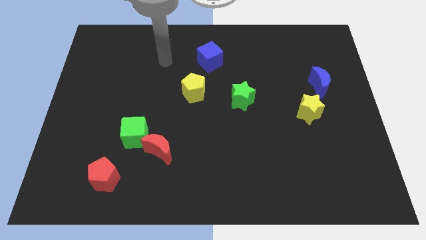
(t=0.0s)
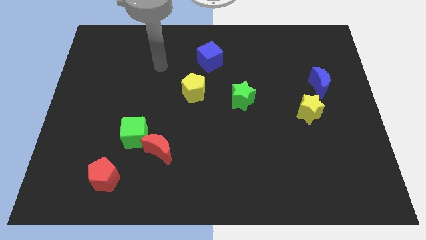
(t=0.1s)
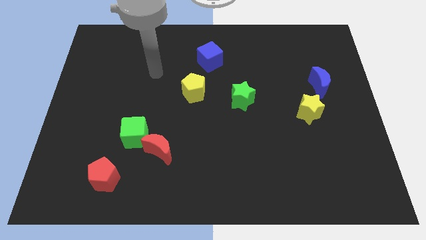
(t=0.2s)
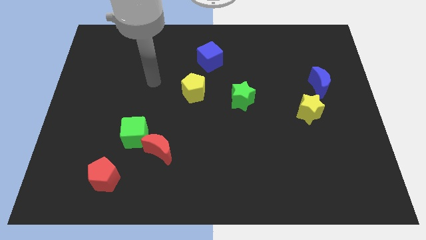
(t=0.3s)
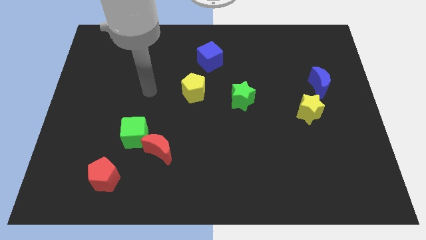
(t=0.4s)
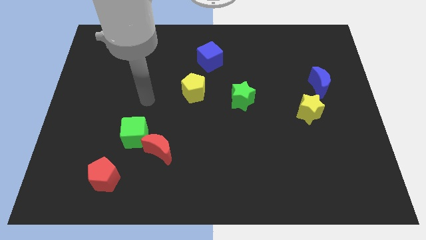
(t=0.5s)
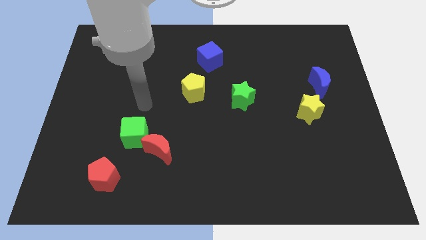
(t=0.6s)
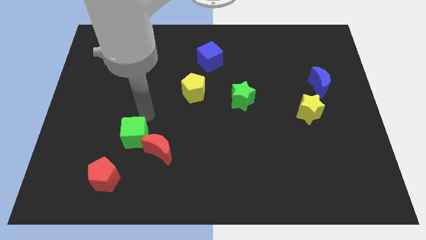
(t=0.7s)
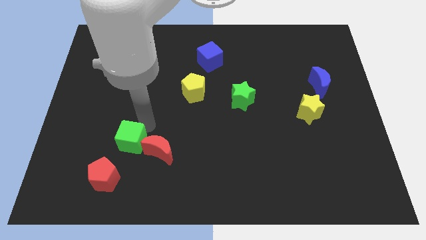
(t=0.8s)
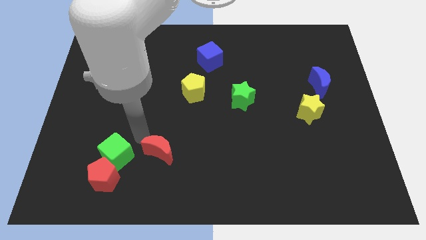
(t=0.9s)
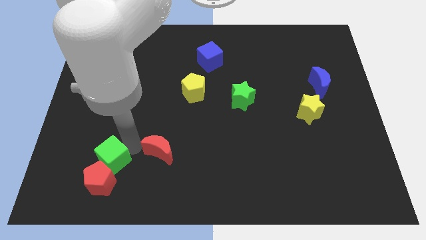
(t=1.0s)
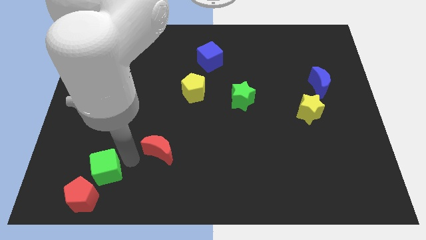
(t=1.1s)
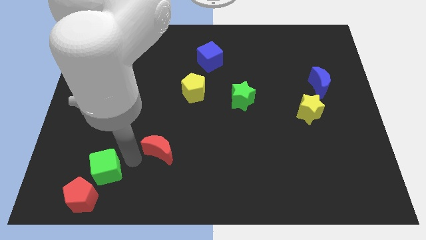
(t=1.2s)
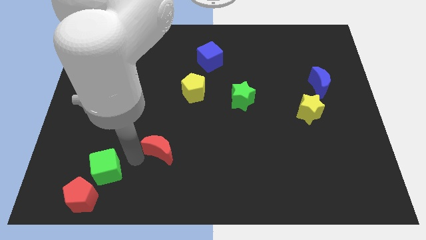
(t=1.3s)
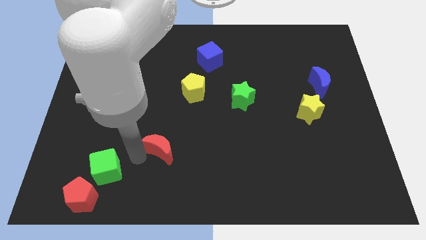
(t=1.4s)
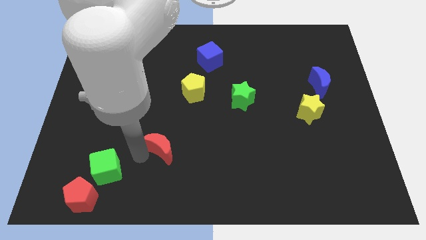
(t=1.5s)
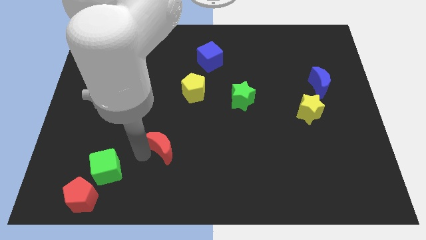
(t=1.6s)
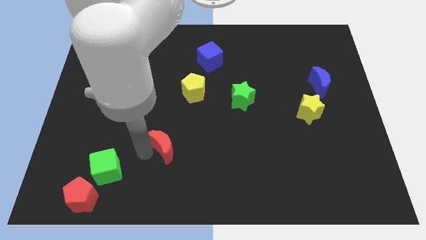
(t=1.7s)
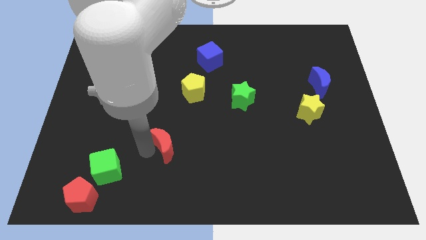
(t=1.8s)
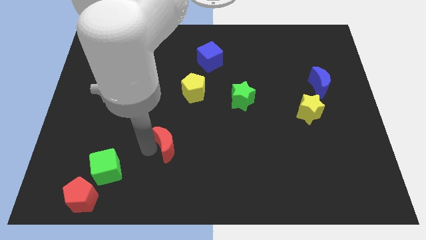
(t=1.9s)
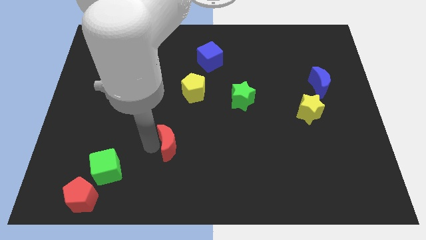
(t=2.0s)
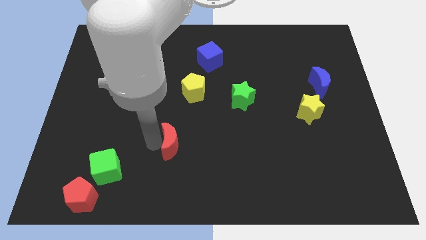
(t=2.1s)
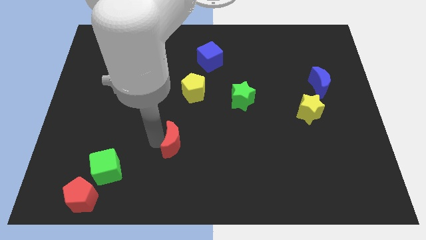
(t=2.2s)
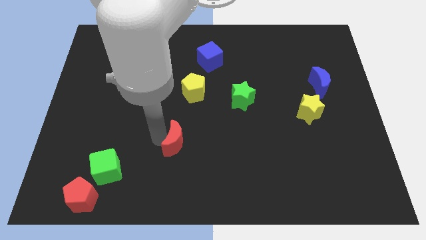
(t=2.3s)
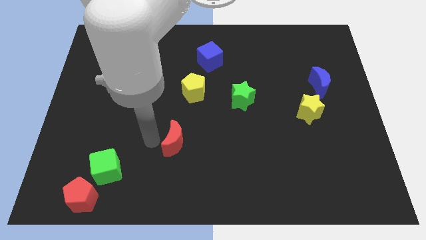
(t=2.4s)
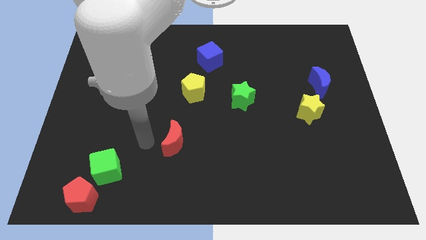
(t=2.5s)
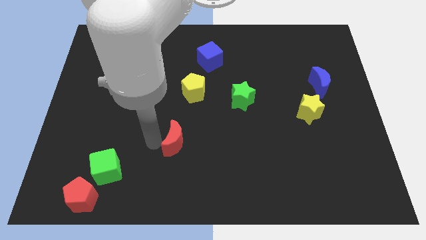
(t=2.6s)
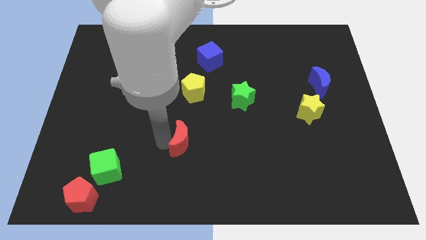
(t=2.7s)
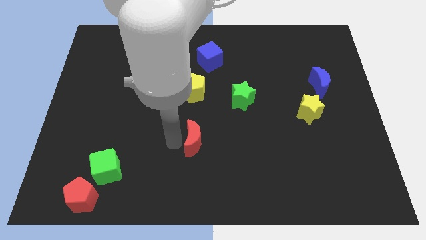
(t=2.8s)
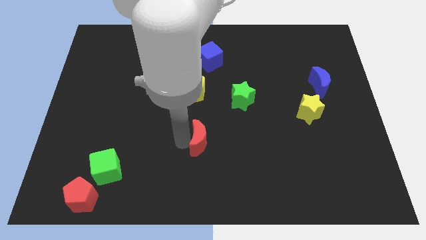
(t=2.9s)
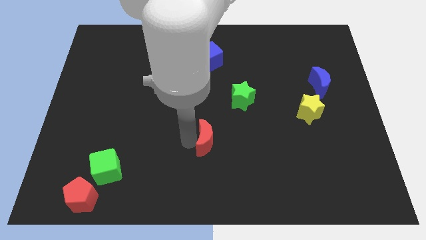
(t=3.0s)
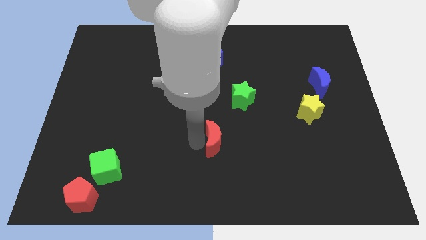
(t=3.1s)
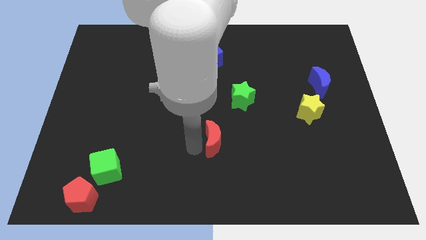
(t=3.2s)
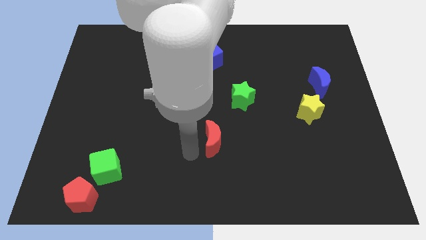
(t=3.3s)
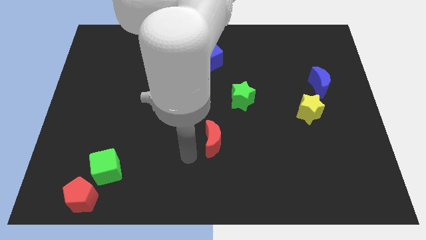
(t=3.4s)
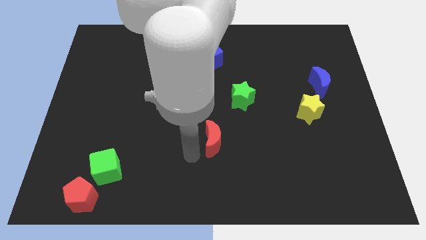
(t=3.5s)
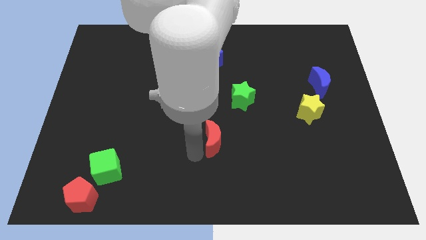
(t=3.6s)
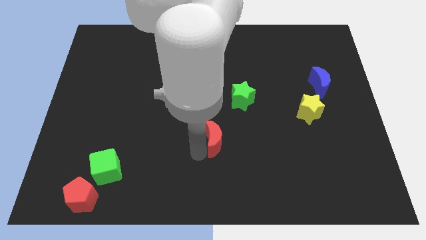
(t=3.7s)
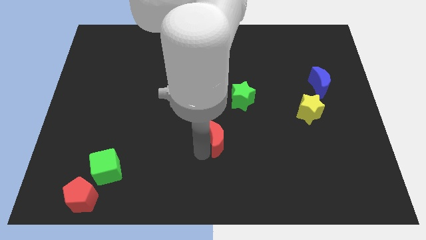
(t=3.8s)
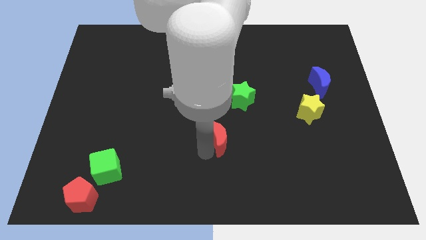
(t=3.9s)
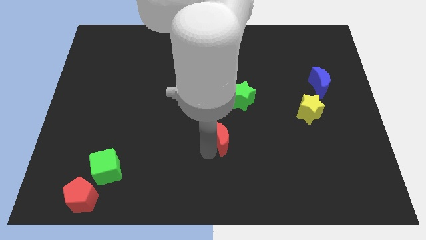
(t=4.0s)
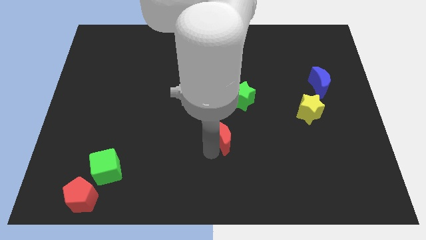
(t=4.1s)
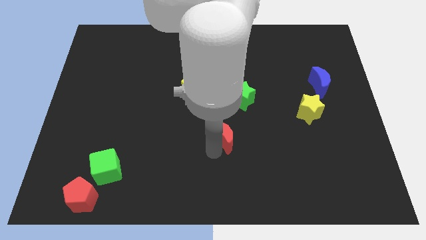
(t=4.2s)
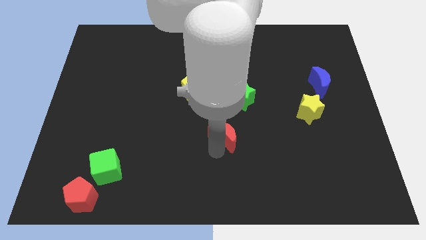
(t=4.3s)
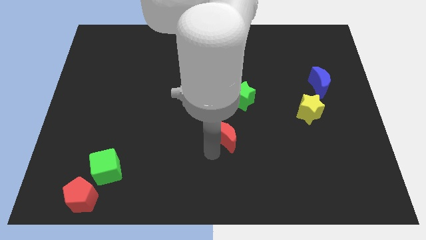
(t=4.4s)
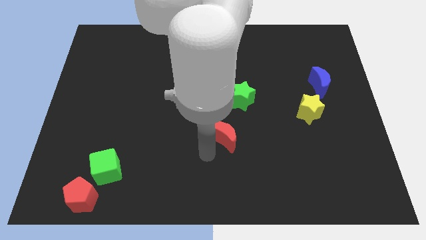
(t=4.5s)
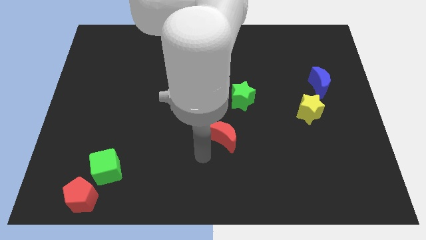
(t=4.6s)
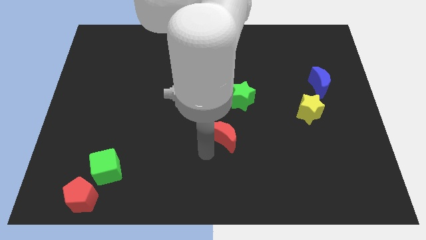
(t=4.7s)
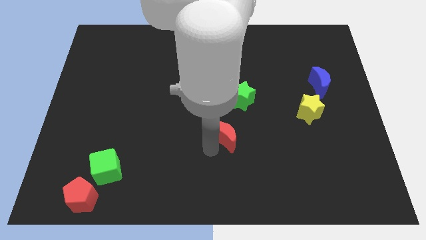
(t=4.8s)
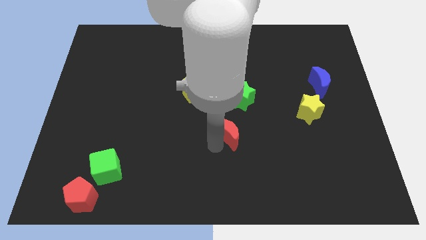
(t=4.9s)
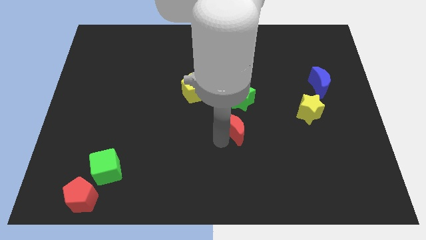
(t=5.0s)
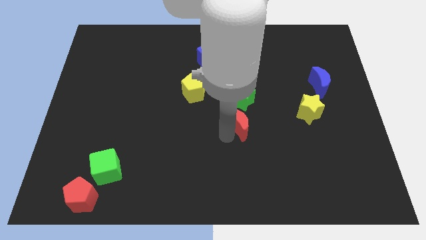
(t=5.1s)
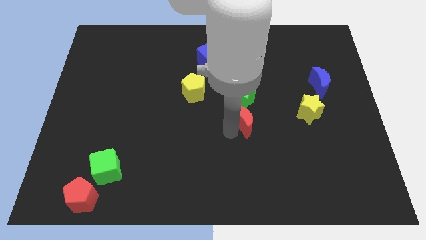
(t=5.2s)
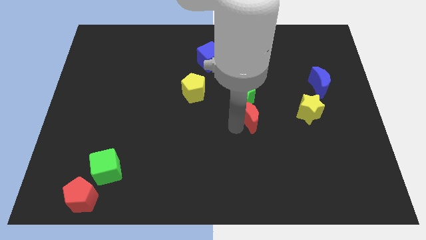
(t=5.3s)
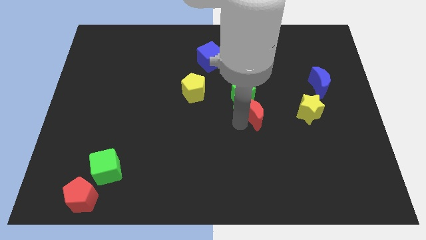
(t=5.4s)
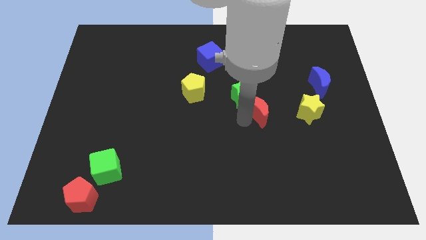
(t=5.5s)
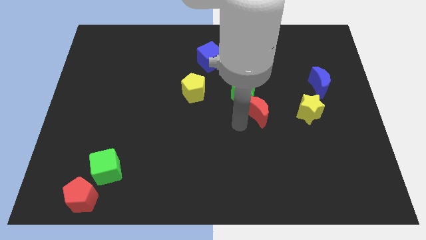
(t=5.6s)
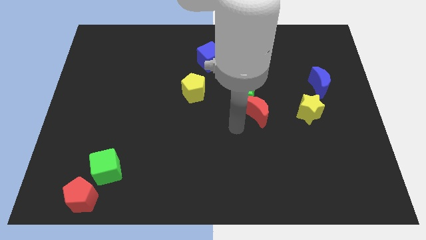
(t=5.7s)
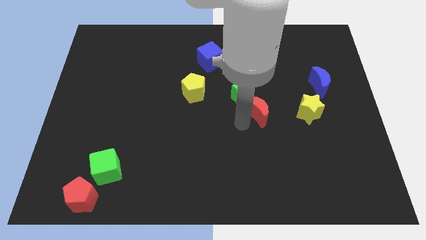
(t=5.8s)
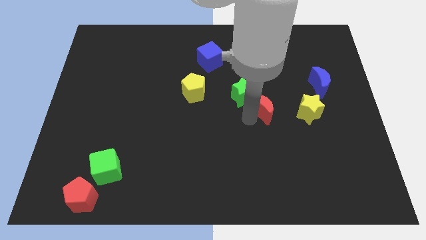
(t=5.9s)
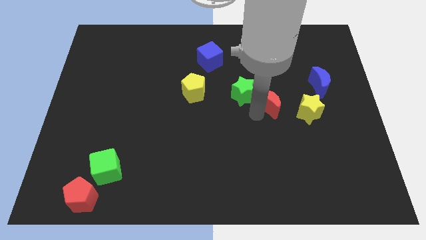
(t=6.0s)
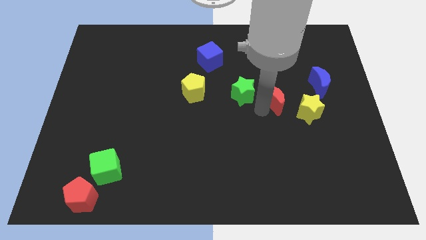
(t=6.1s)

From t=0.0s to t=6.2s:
move the red moon to the top left side of the yellow star

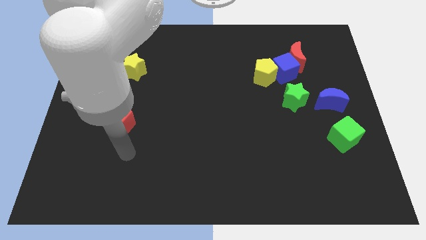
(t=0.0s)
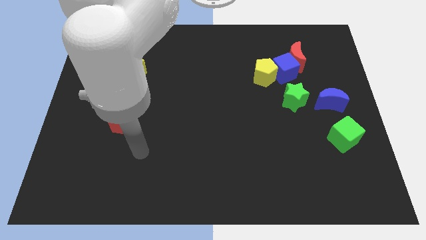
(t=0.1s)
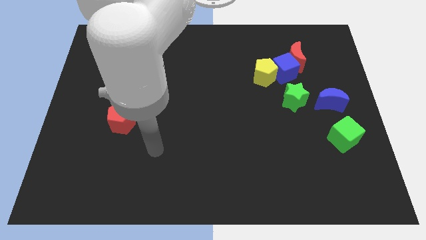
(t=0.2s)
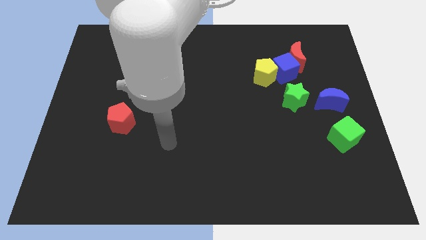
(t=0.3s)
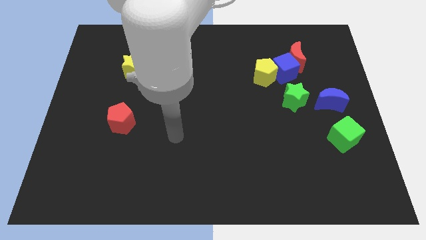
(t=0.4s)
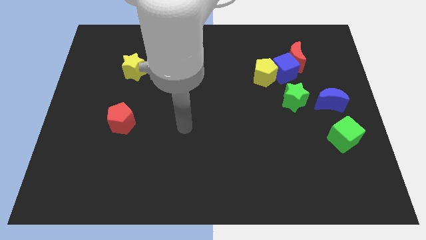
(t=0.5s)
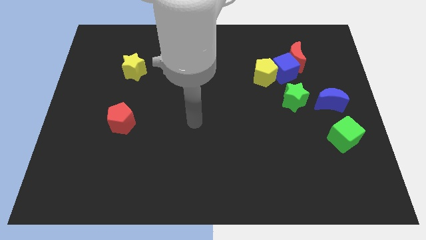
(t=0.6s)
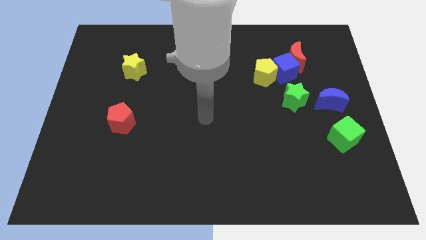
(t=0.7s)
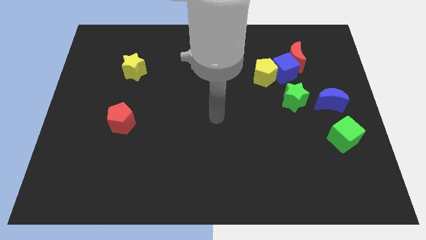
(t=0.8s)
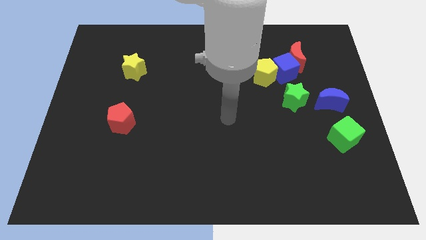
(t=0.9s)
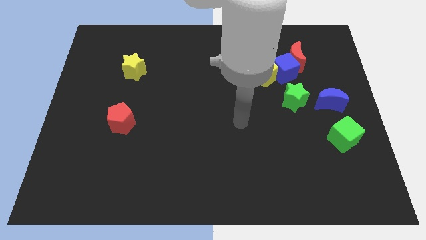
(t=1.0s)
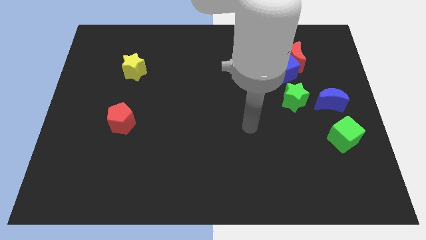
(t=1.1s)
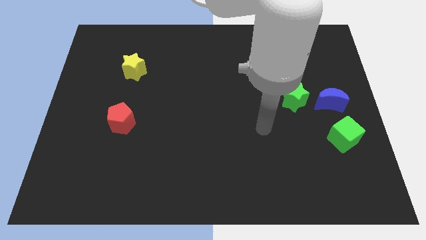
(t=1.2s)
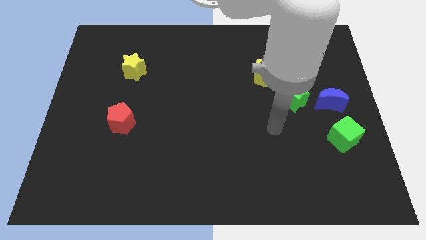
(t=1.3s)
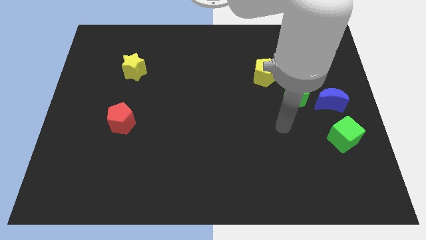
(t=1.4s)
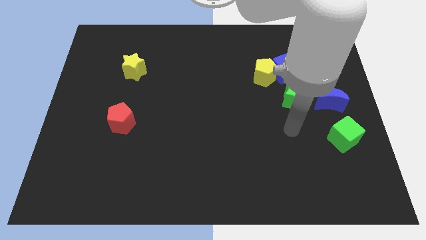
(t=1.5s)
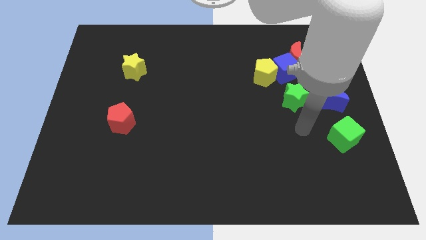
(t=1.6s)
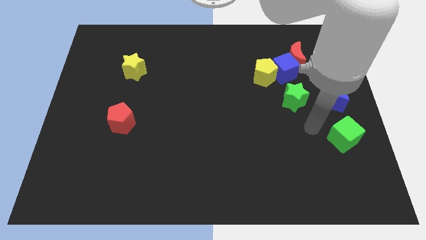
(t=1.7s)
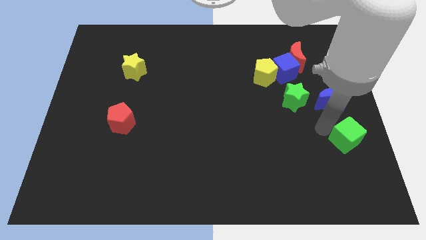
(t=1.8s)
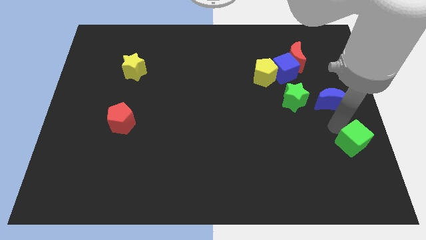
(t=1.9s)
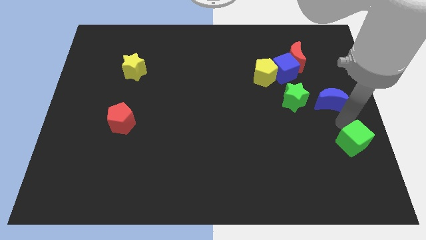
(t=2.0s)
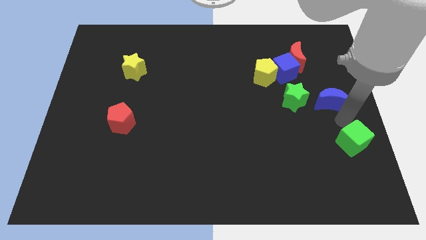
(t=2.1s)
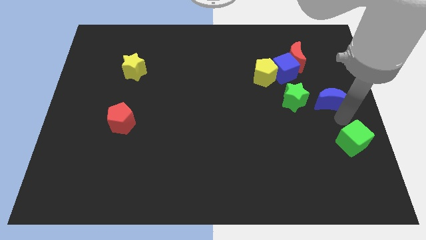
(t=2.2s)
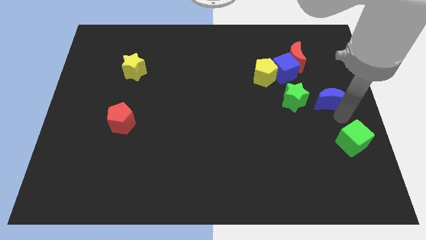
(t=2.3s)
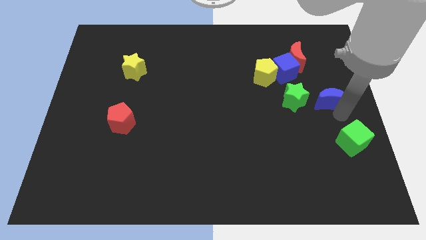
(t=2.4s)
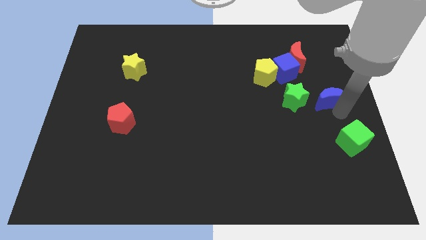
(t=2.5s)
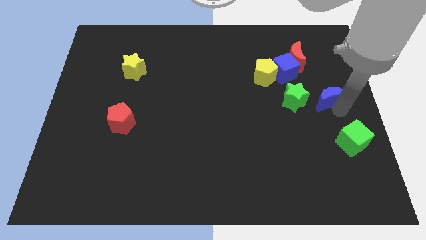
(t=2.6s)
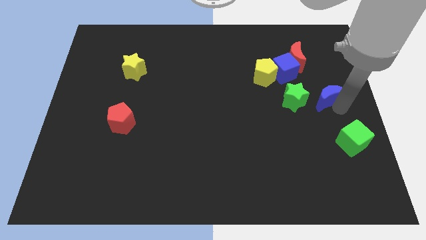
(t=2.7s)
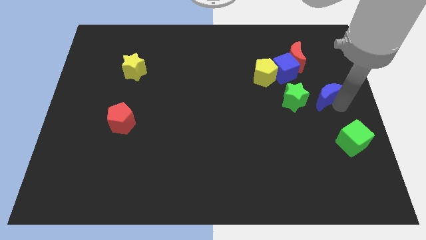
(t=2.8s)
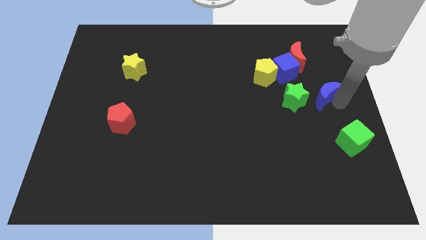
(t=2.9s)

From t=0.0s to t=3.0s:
put the blue moon to the top right of the green star
